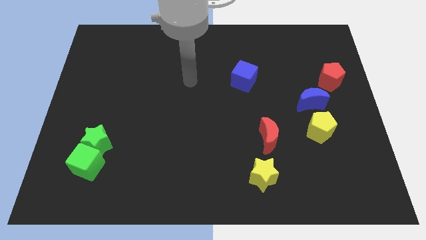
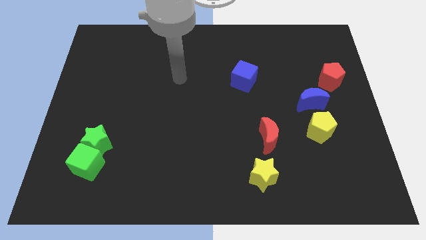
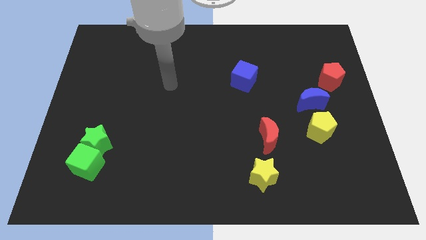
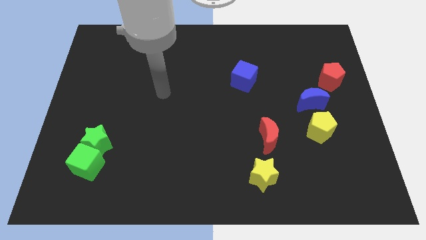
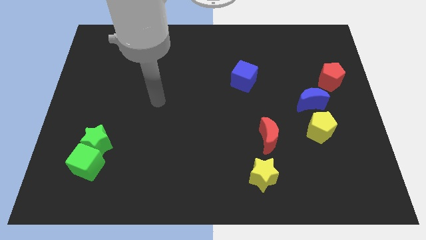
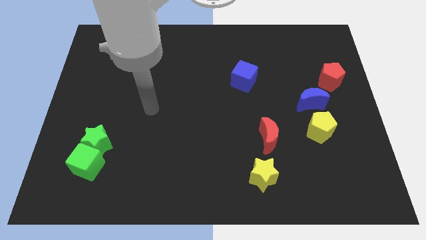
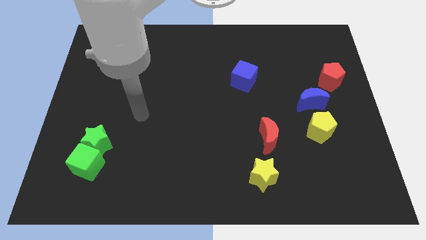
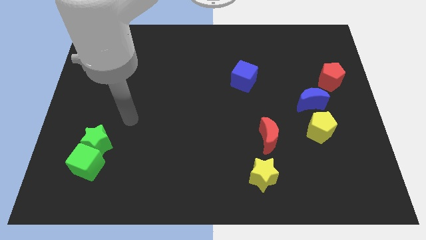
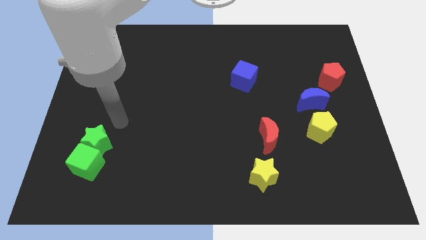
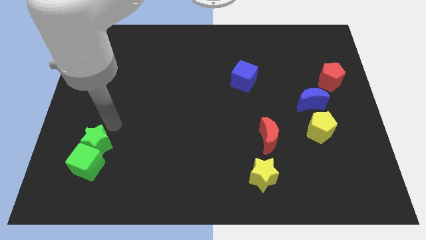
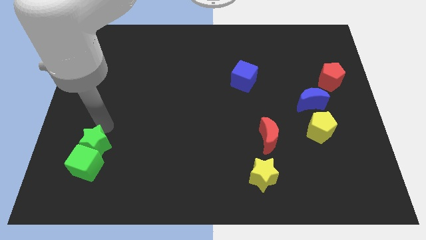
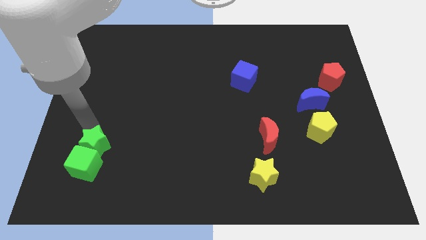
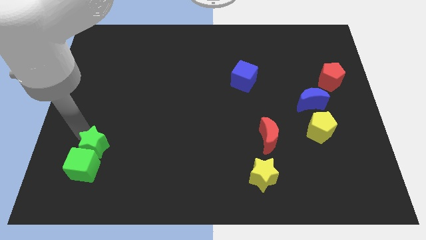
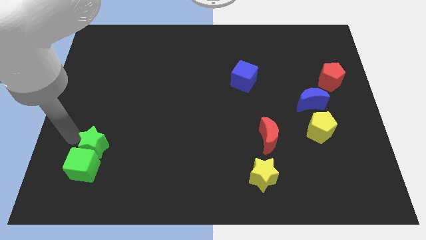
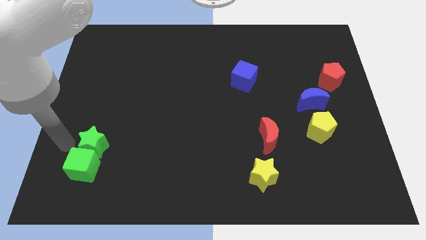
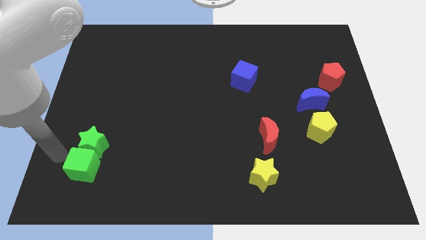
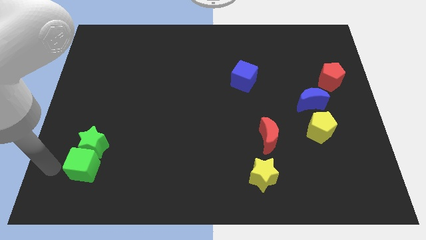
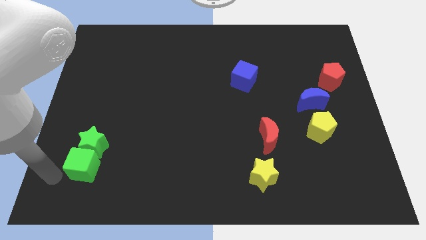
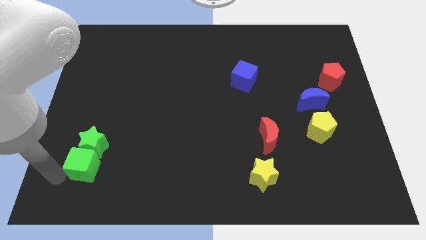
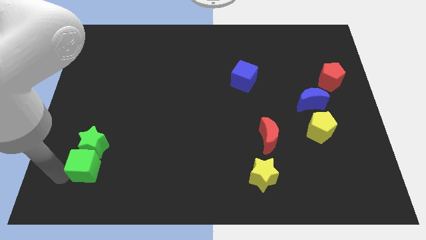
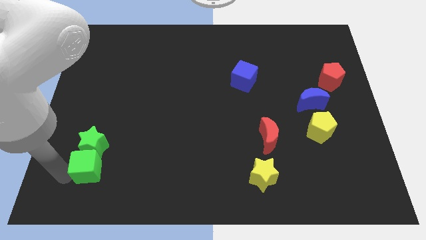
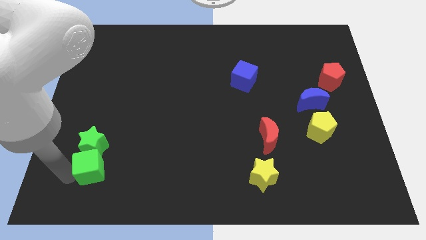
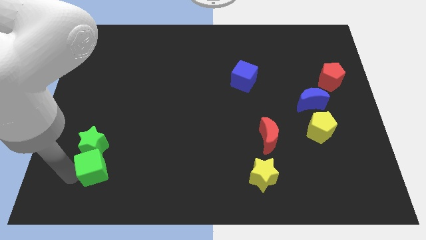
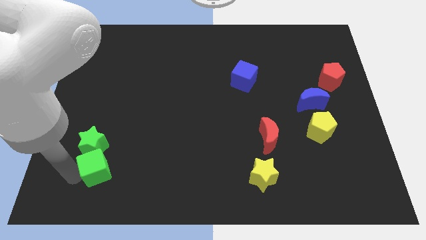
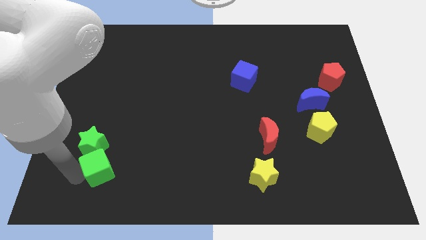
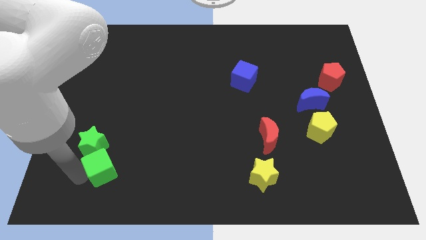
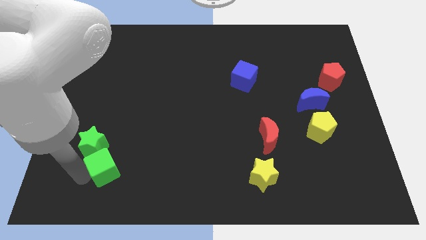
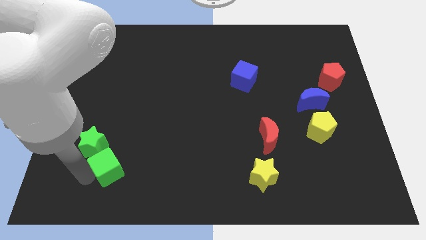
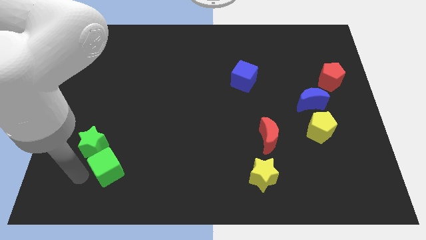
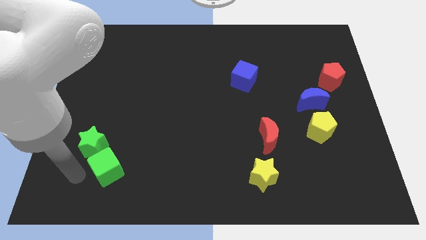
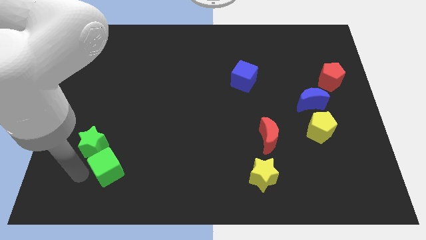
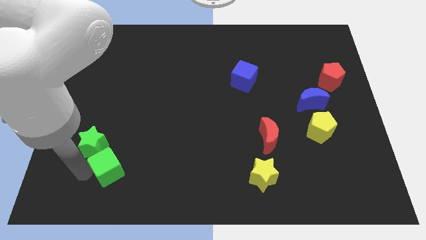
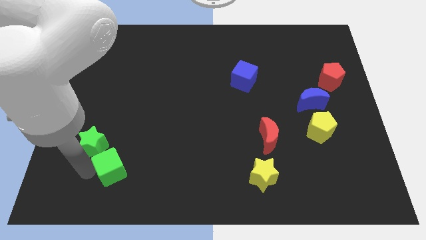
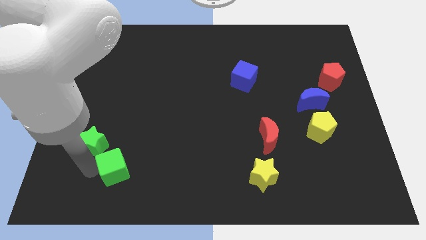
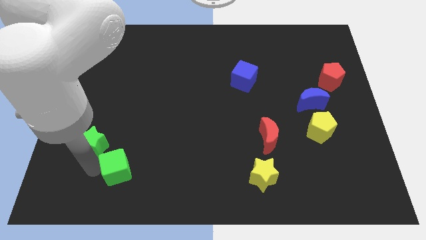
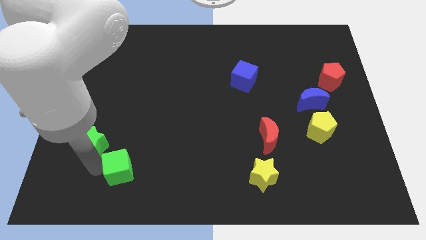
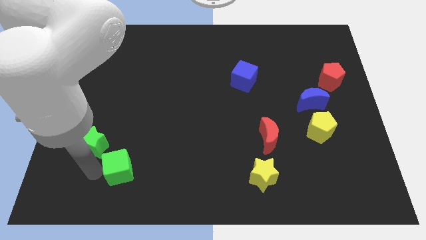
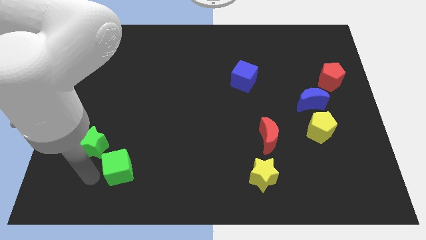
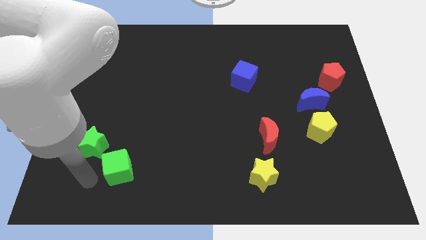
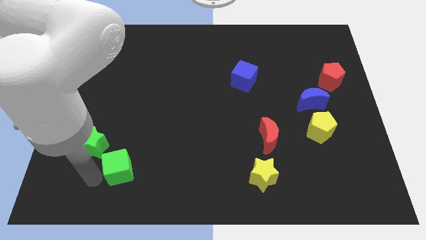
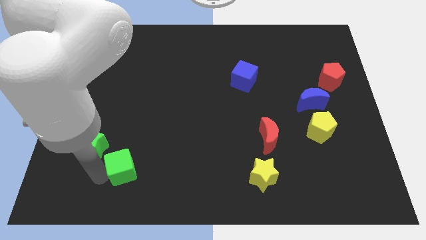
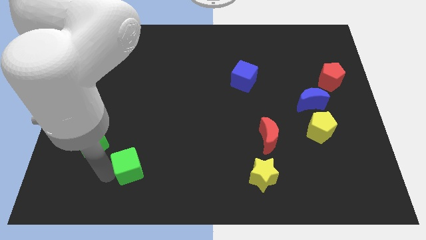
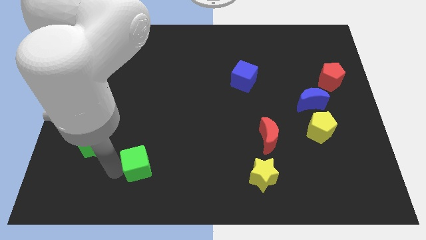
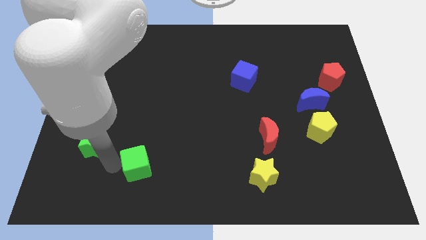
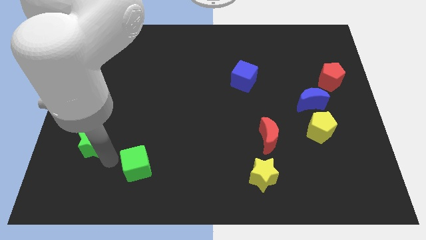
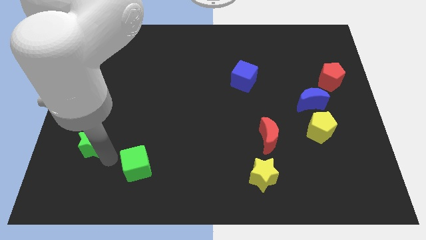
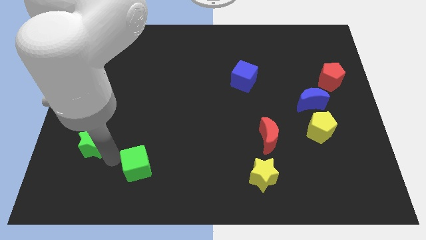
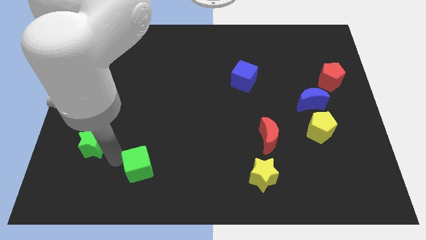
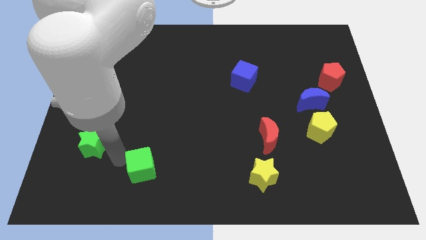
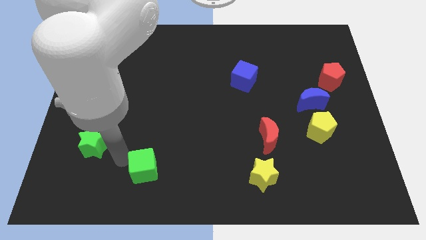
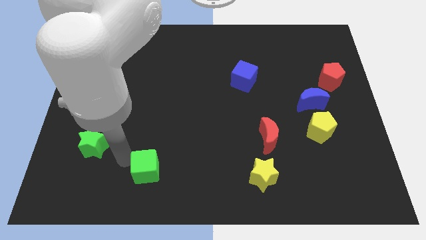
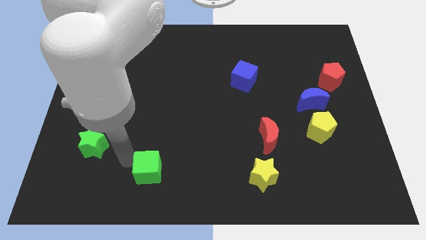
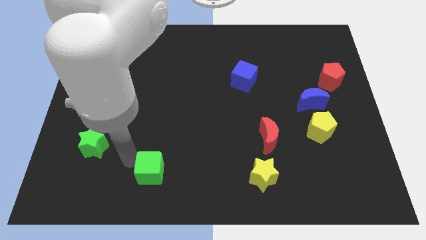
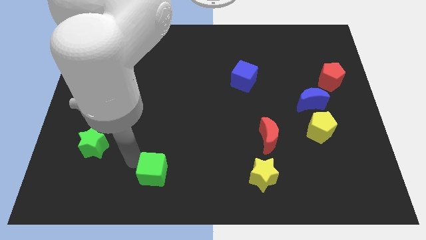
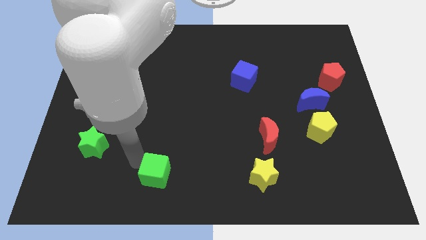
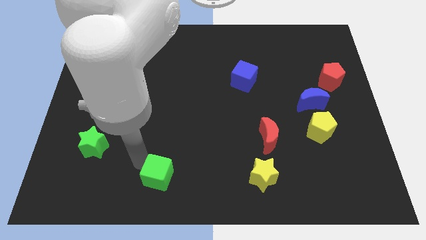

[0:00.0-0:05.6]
put the green cube to the bottom

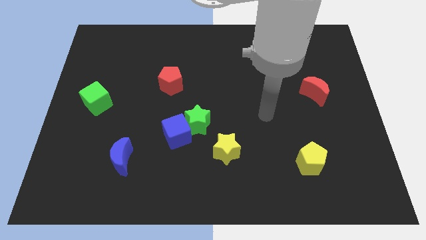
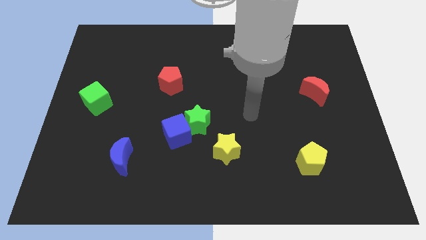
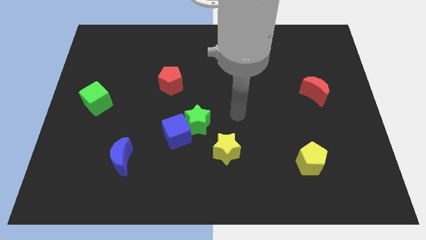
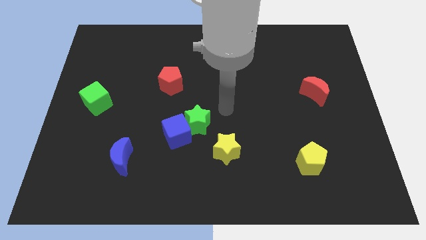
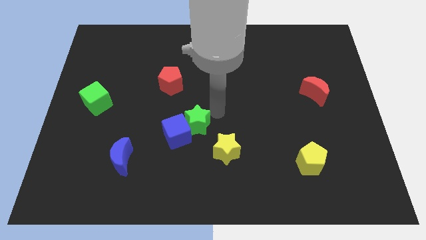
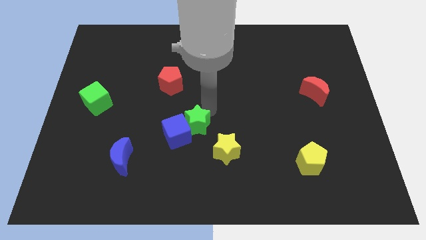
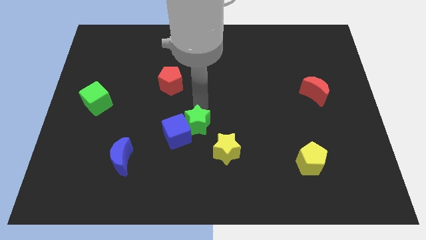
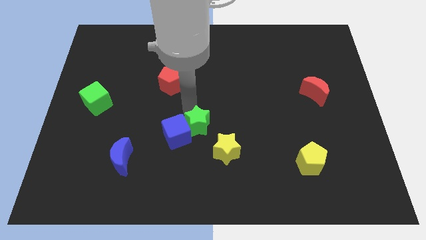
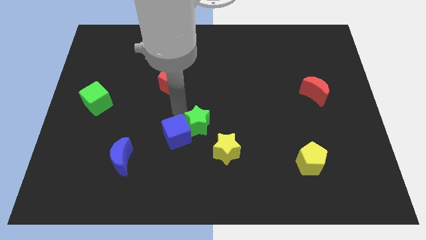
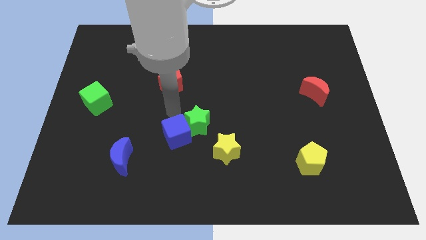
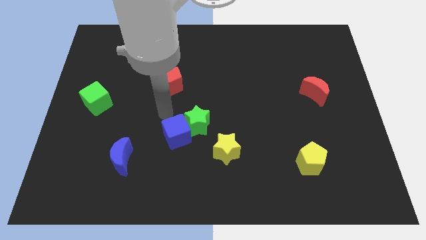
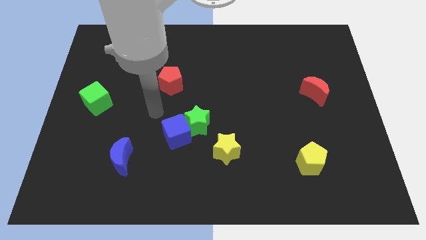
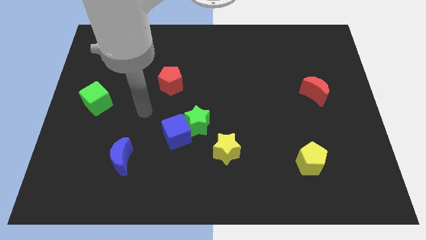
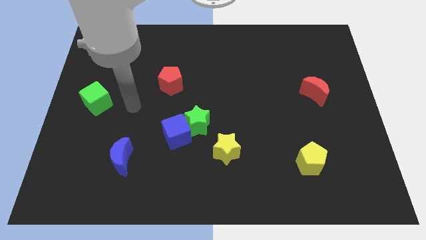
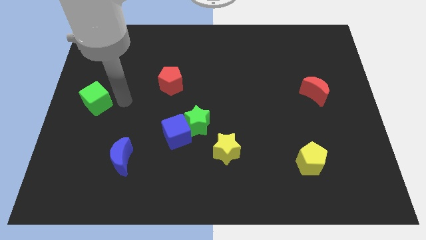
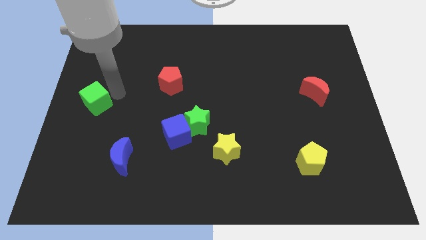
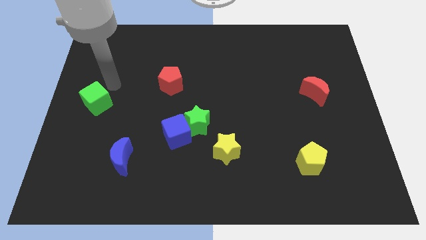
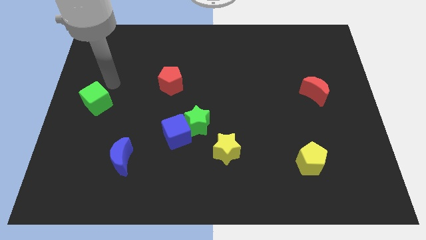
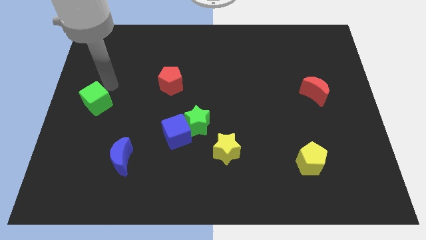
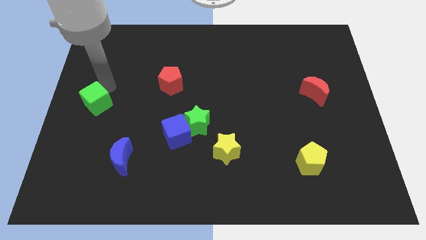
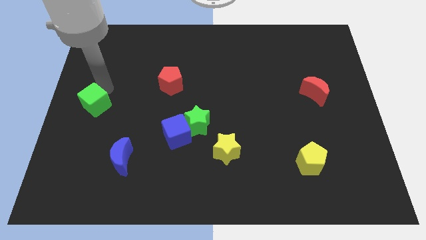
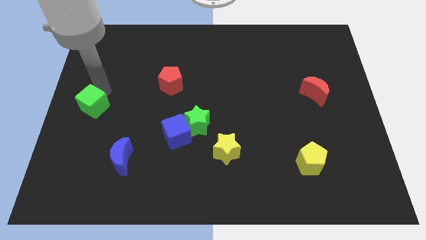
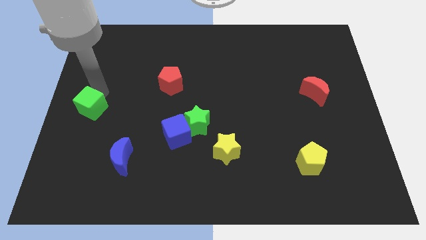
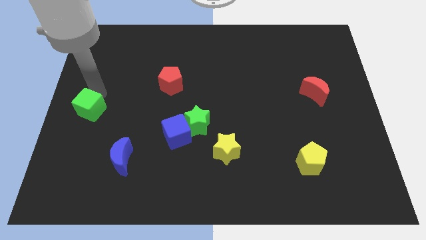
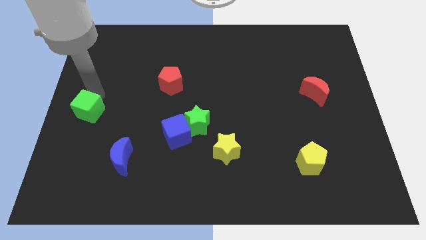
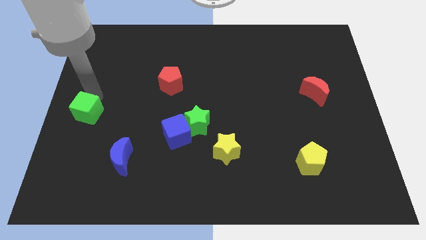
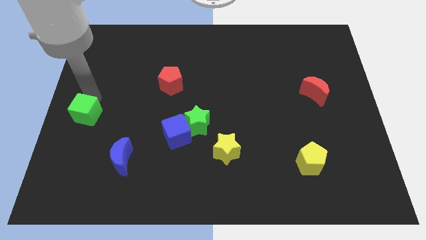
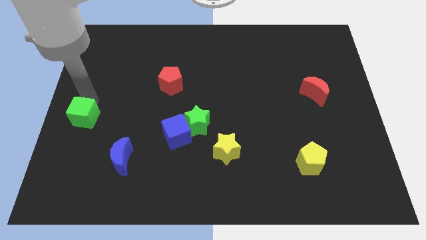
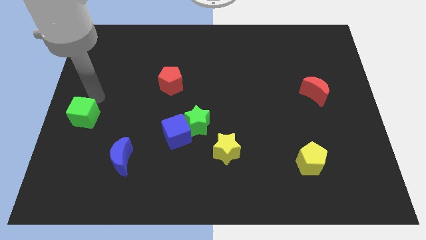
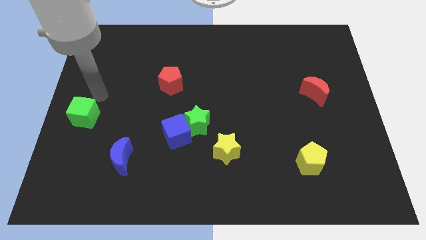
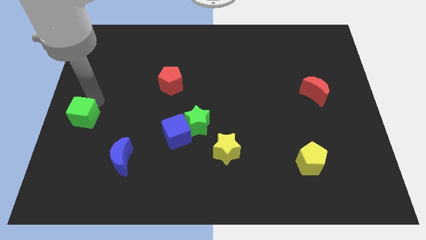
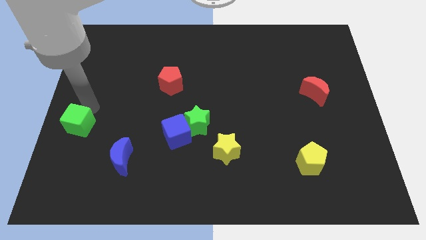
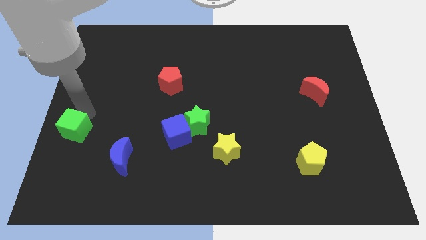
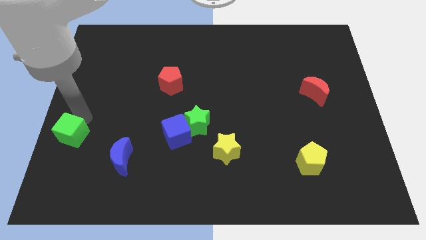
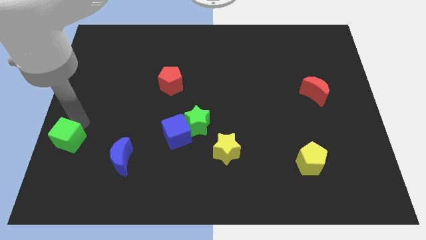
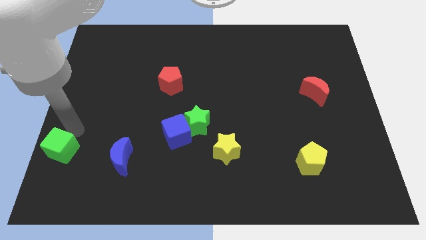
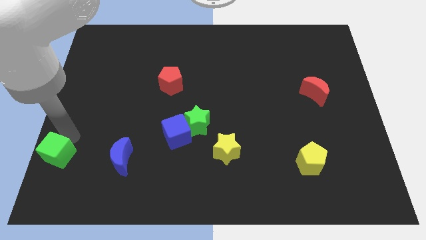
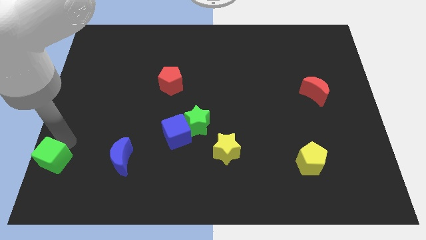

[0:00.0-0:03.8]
slide the green cube to the bottom left
